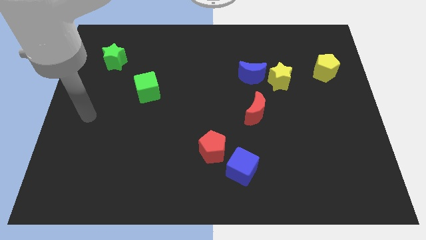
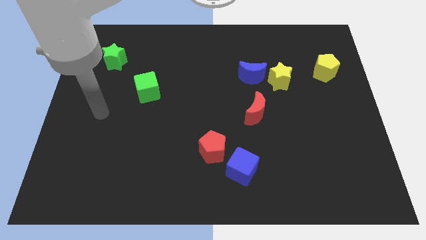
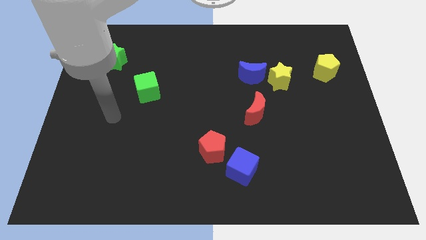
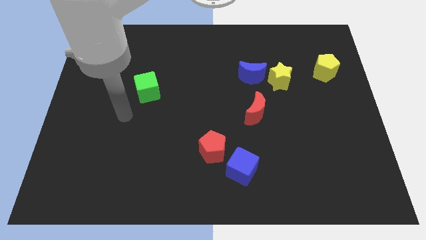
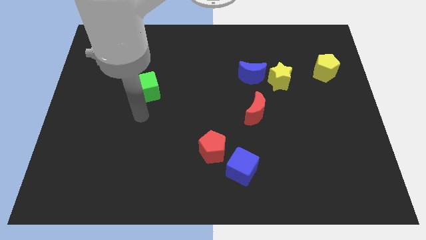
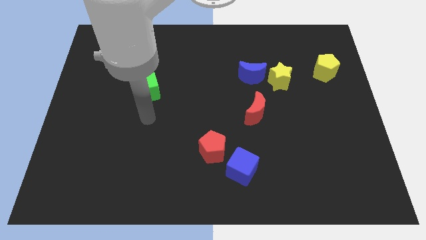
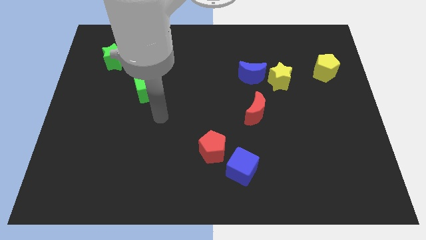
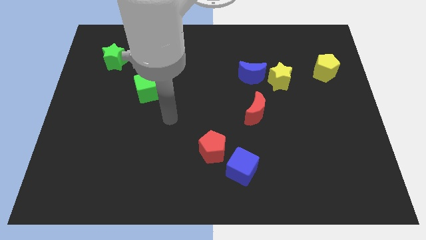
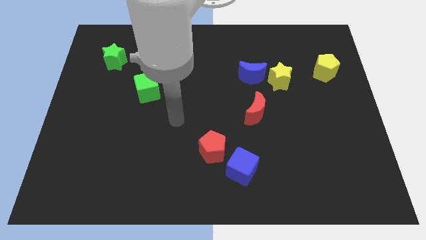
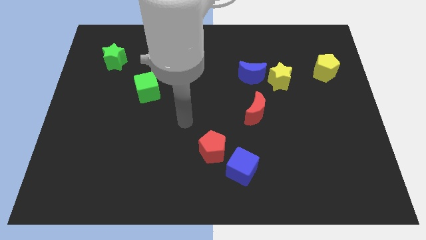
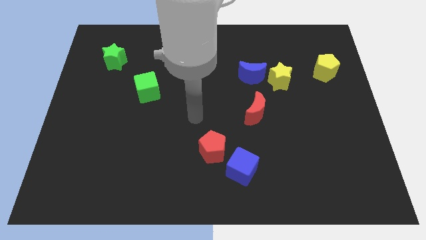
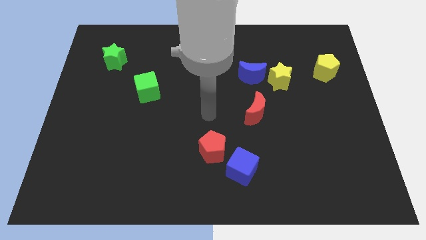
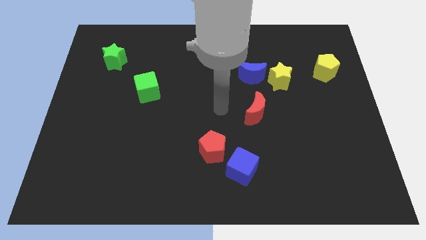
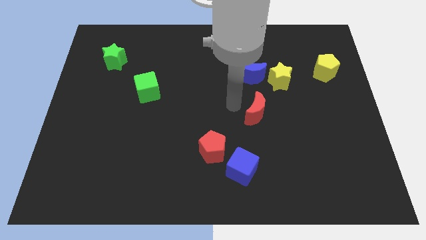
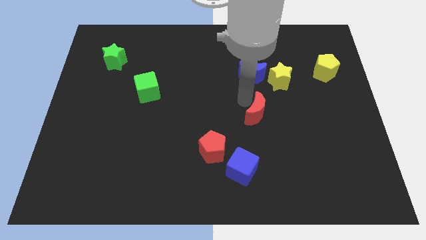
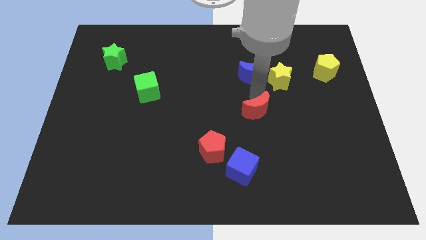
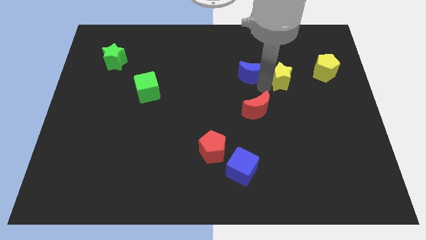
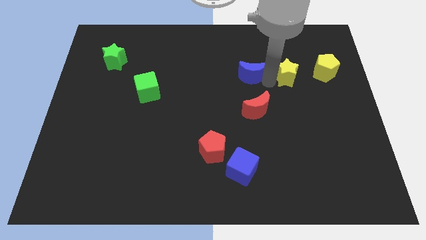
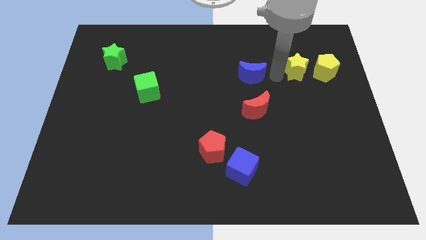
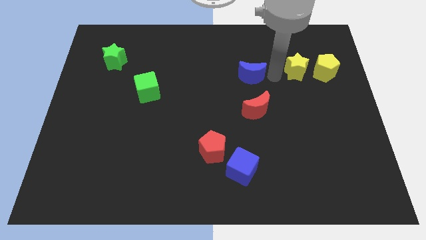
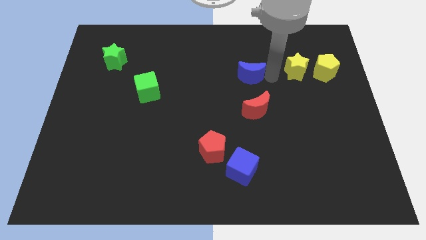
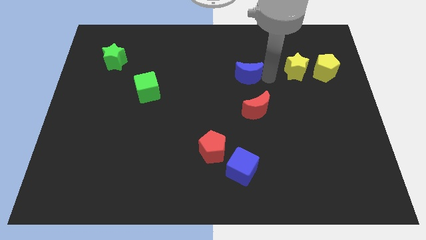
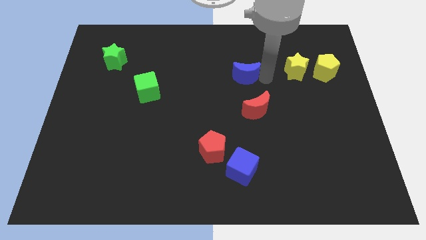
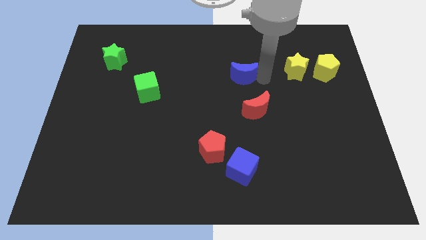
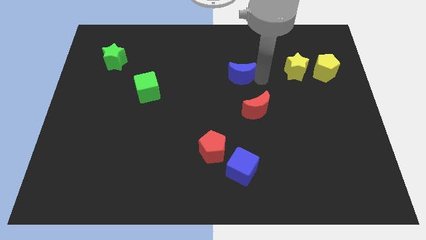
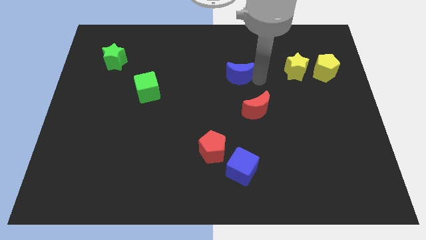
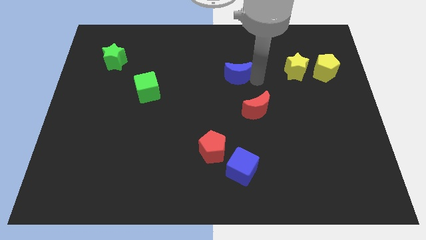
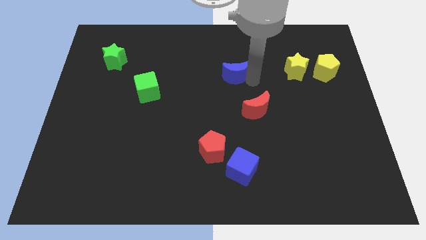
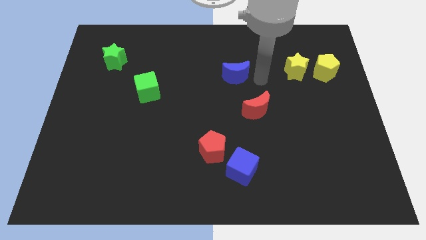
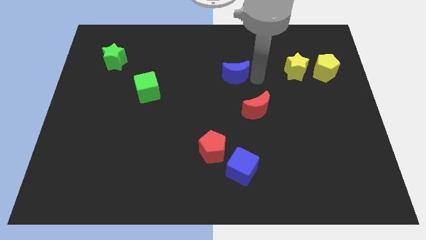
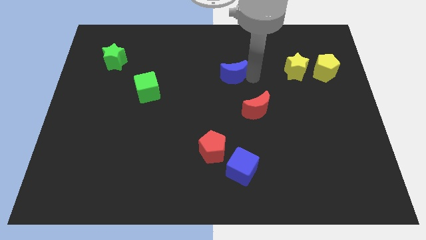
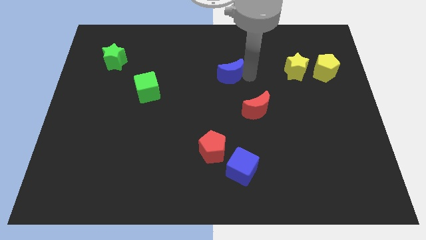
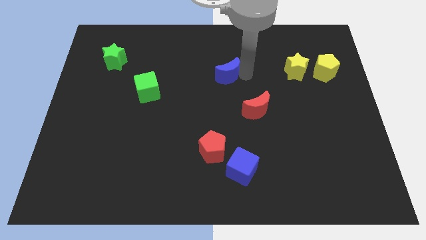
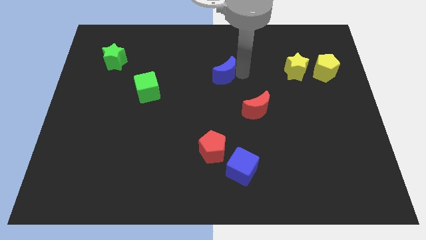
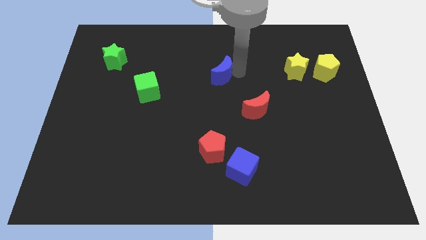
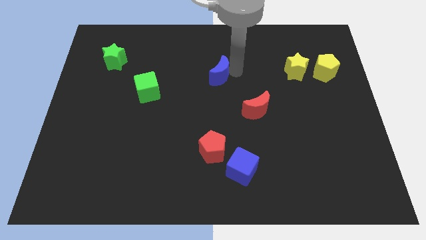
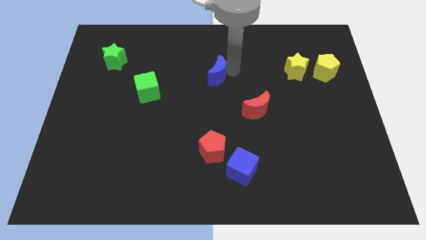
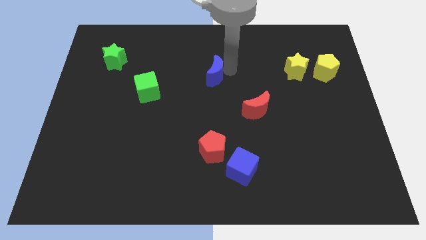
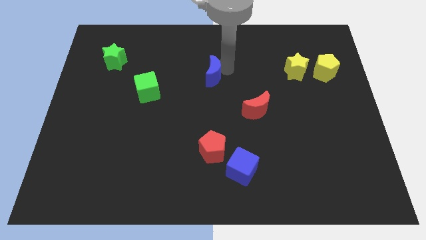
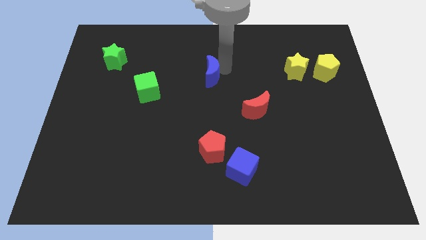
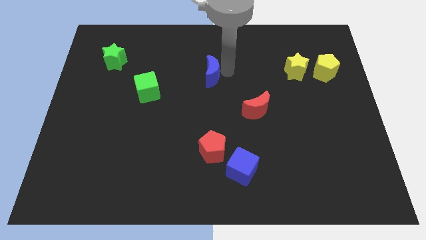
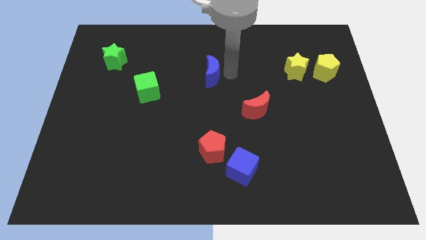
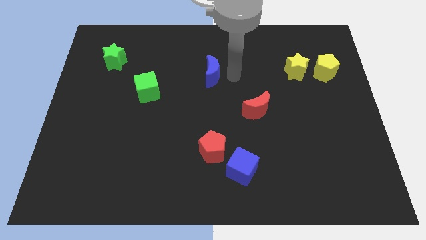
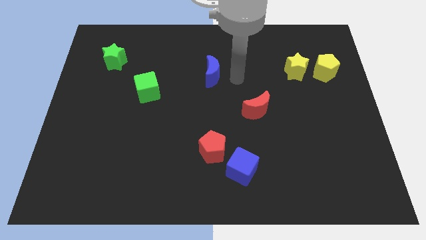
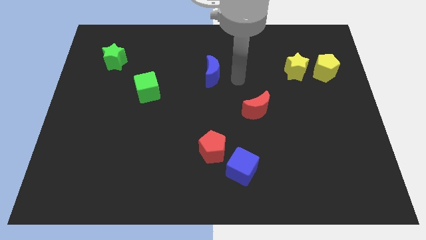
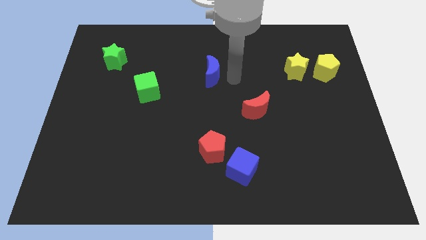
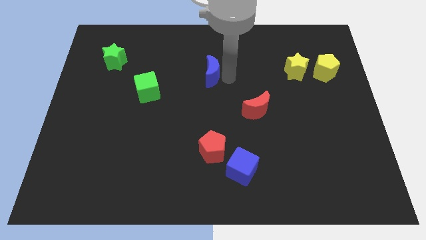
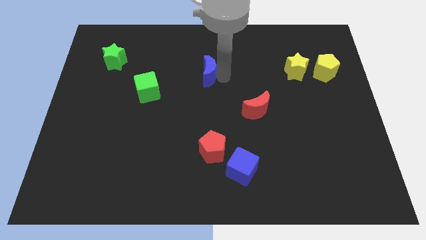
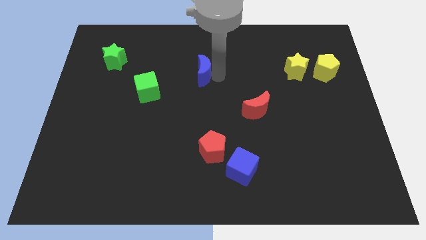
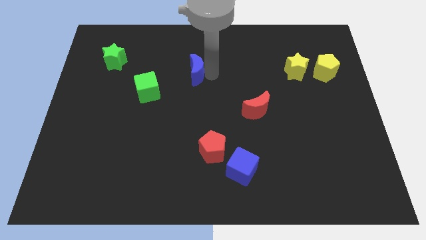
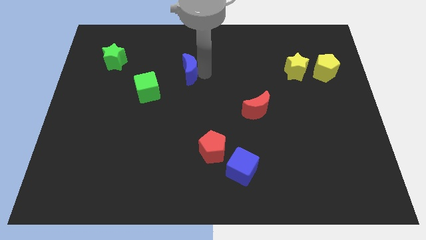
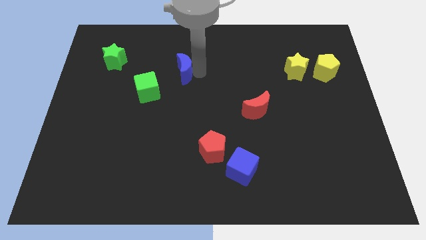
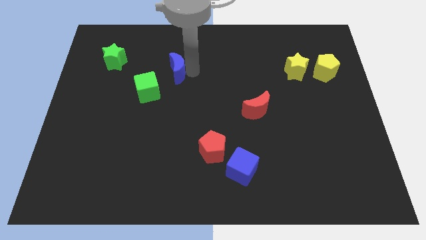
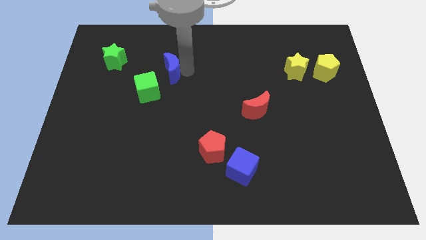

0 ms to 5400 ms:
push the blue moon left

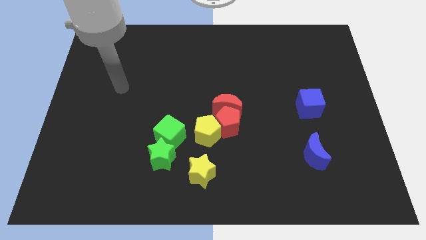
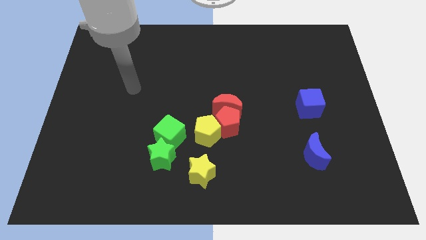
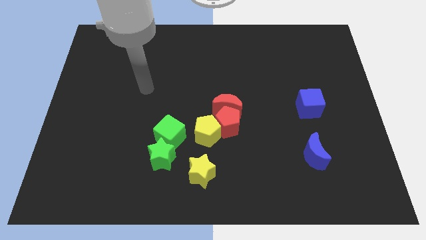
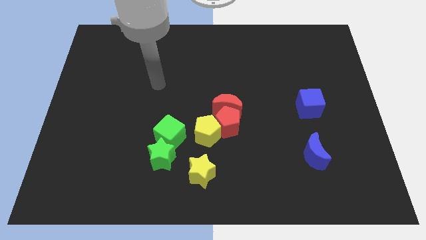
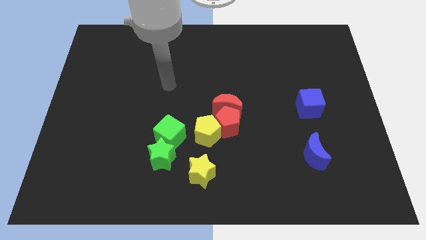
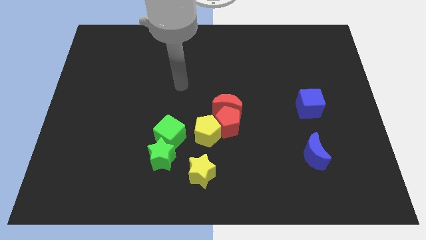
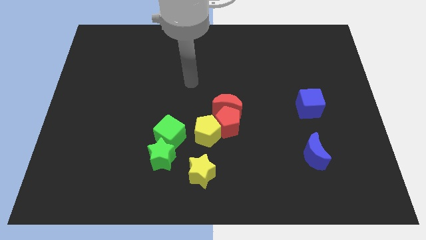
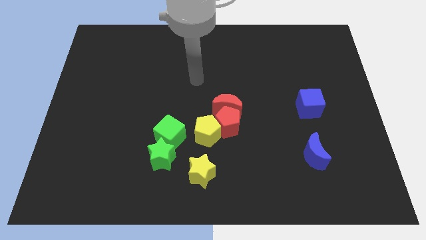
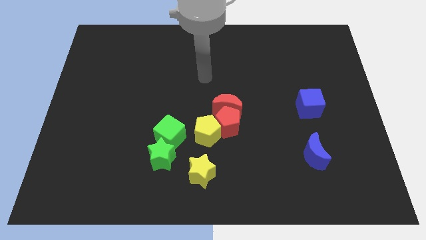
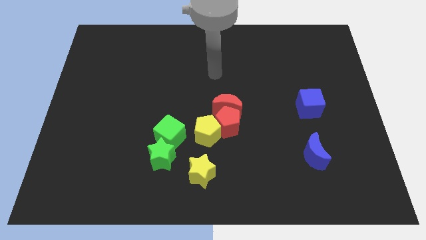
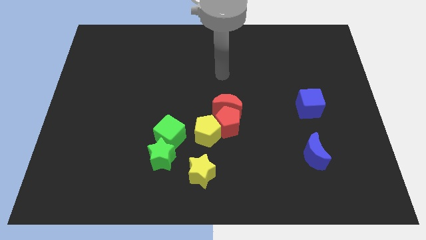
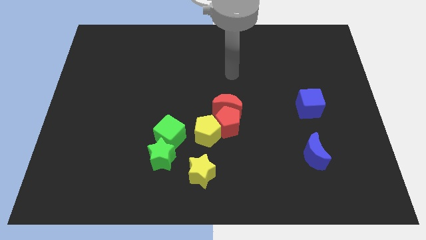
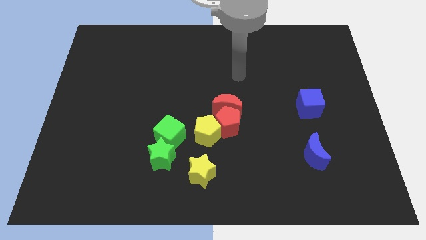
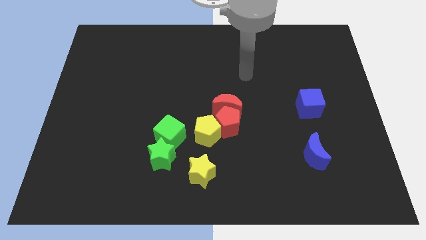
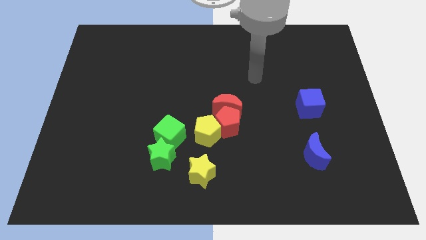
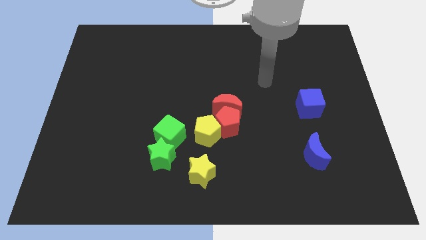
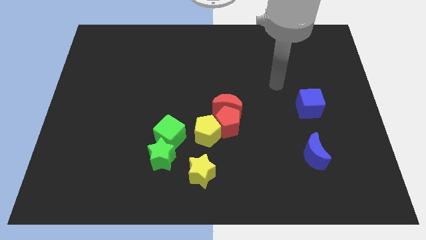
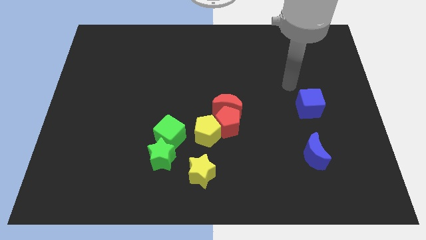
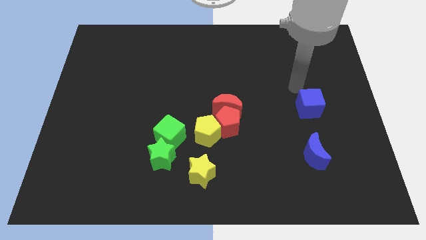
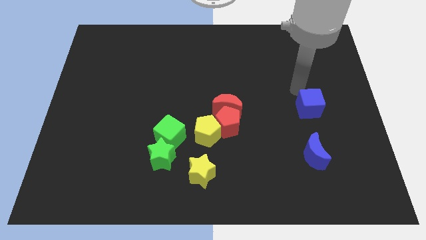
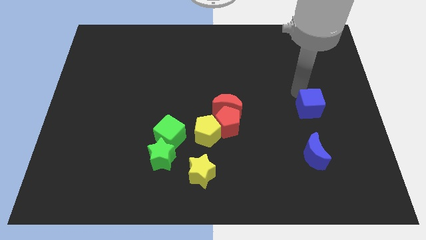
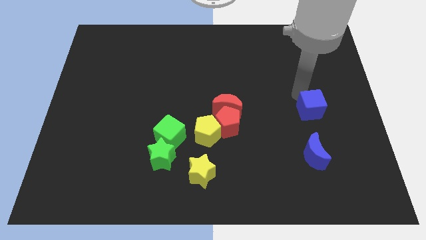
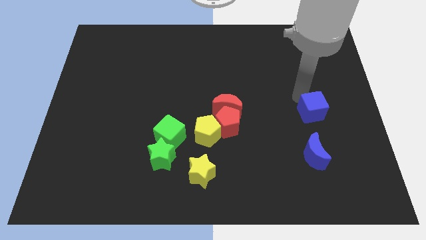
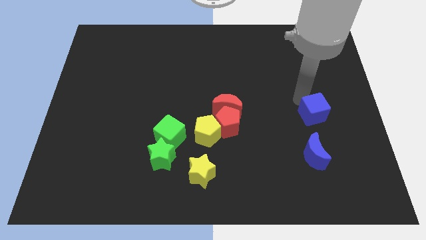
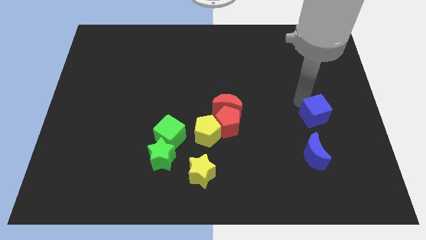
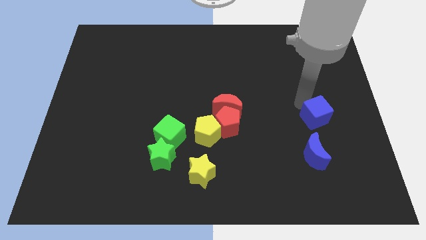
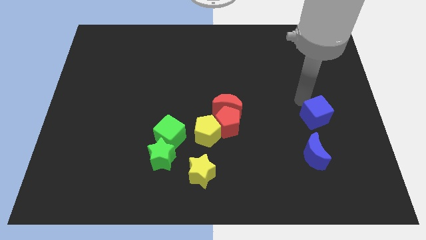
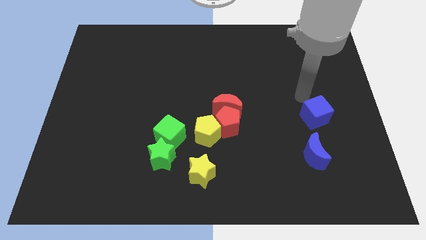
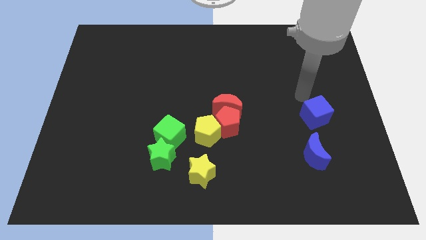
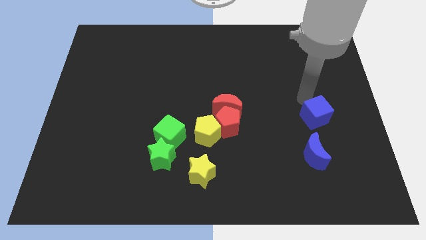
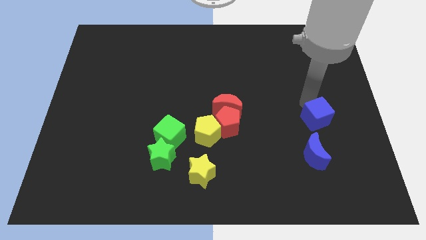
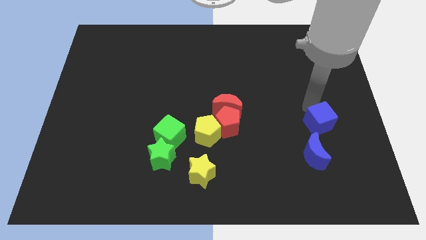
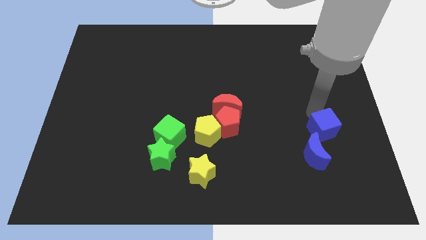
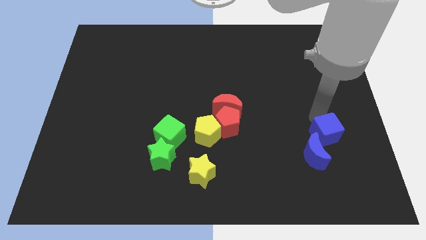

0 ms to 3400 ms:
push the blue cube slightly down
